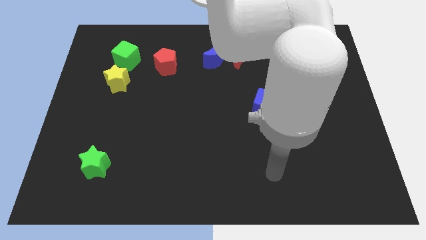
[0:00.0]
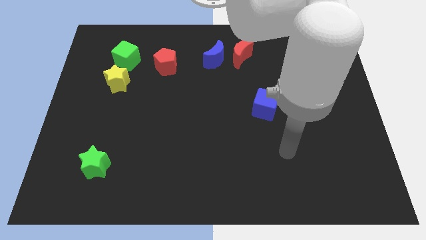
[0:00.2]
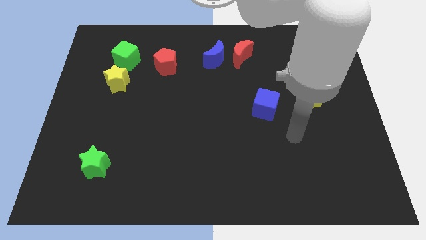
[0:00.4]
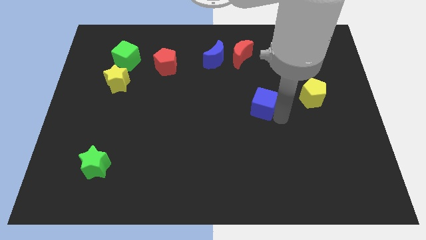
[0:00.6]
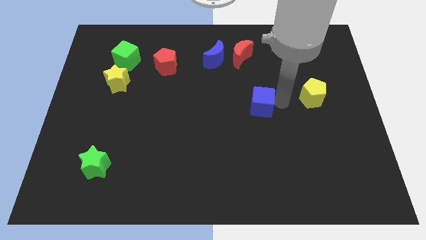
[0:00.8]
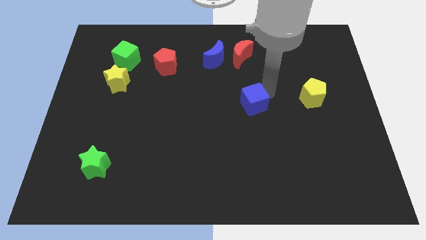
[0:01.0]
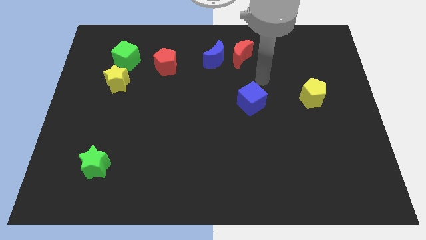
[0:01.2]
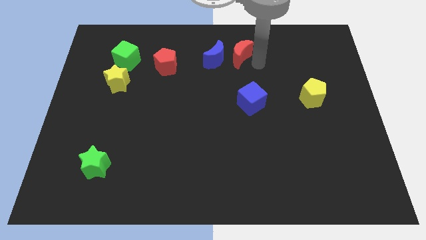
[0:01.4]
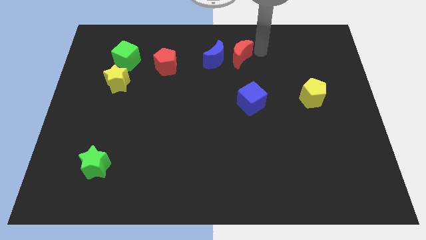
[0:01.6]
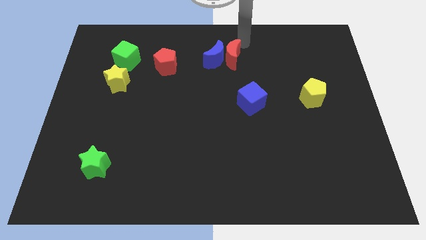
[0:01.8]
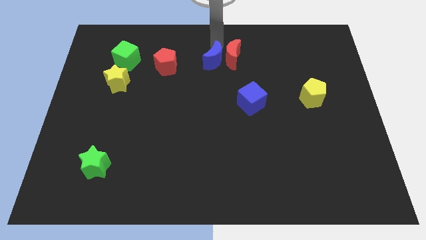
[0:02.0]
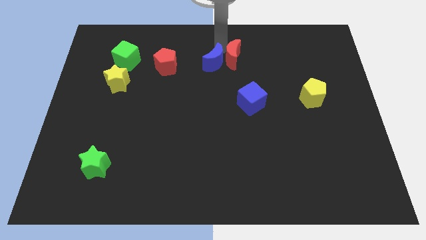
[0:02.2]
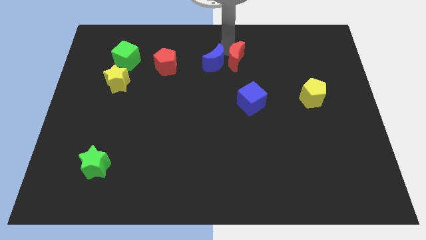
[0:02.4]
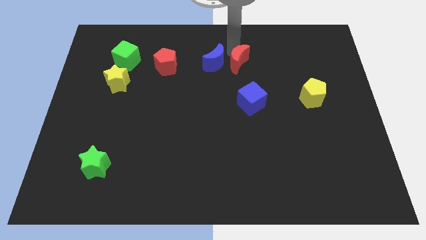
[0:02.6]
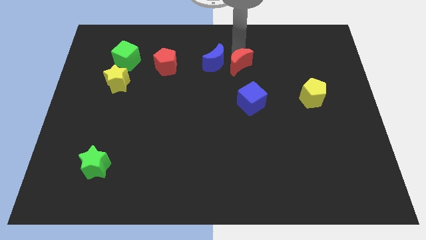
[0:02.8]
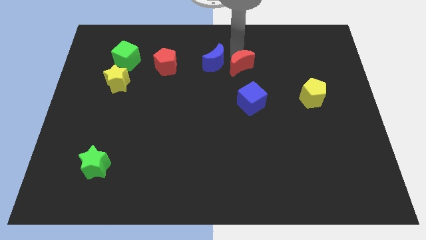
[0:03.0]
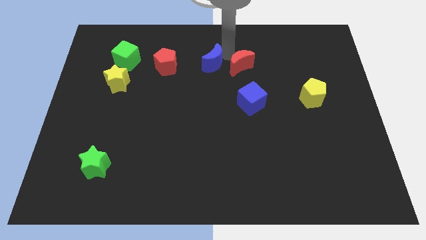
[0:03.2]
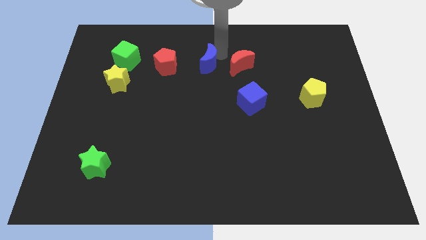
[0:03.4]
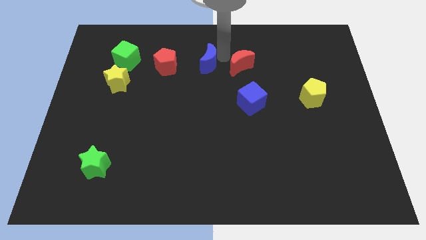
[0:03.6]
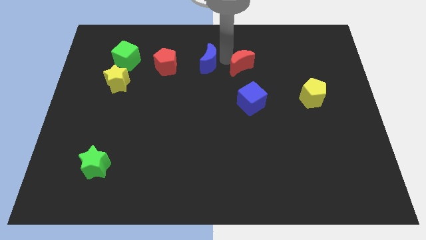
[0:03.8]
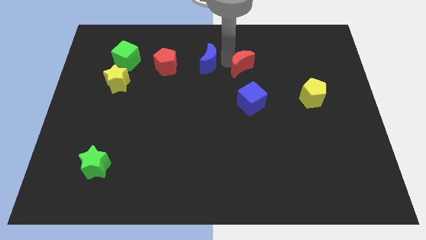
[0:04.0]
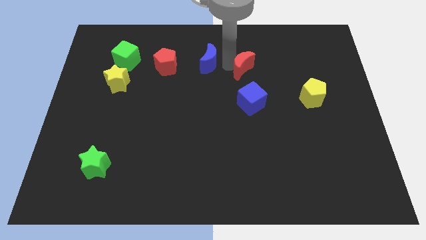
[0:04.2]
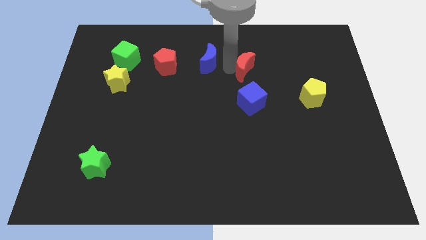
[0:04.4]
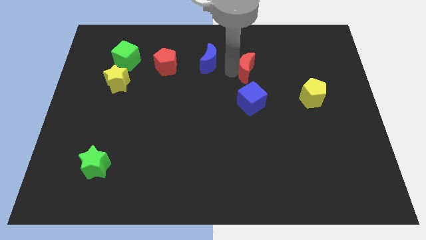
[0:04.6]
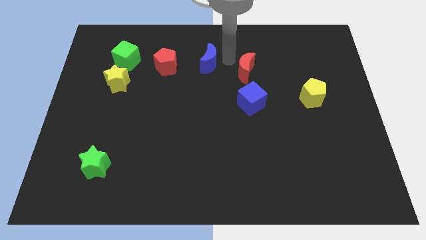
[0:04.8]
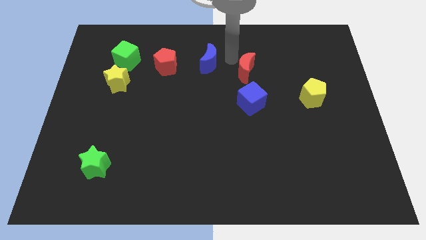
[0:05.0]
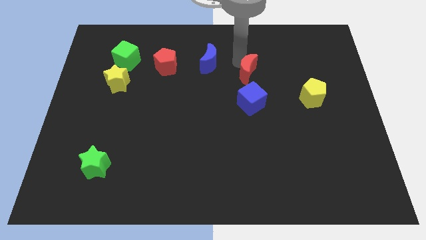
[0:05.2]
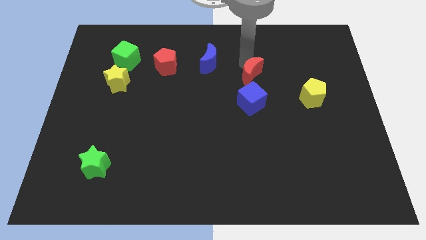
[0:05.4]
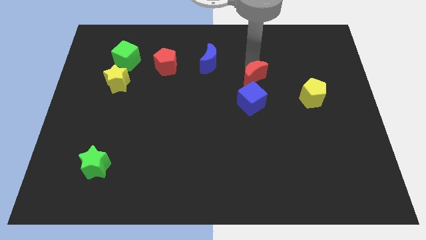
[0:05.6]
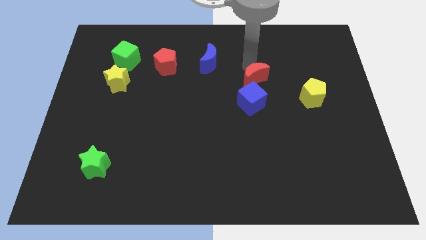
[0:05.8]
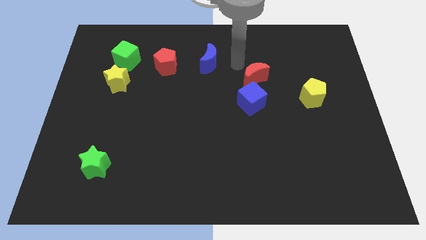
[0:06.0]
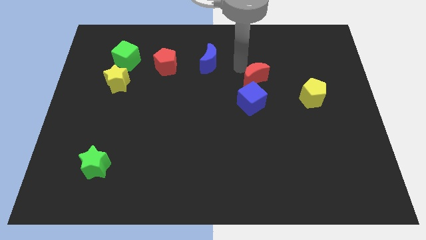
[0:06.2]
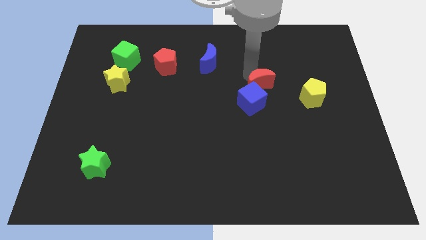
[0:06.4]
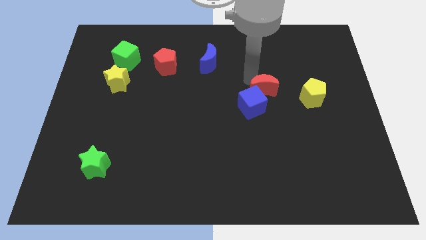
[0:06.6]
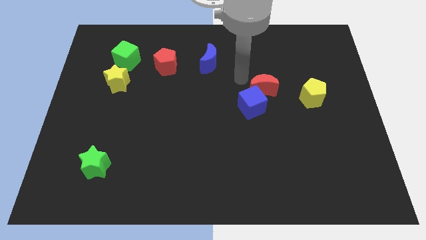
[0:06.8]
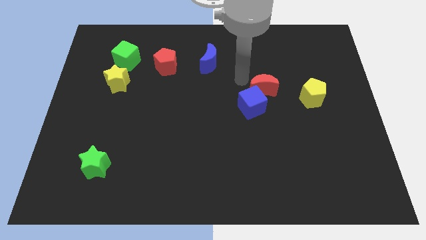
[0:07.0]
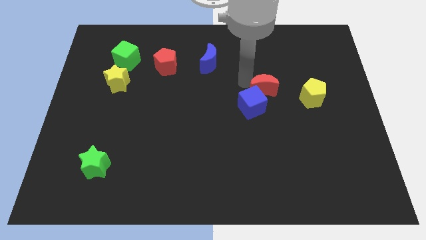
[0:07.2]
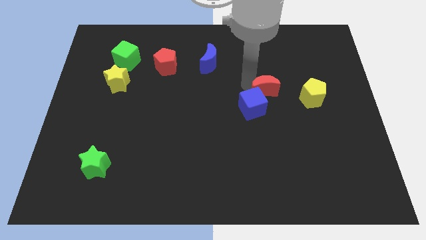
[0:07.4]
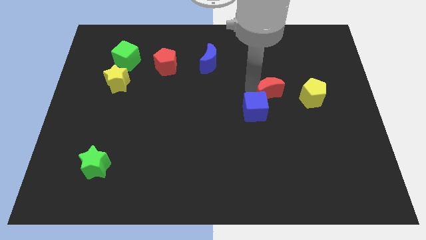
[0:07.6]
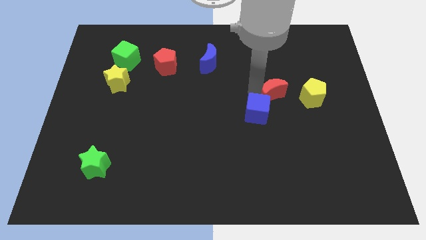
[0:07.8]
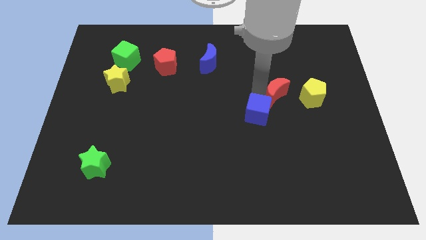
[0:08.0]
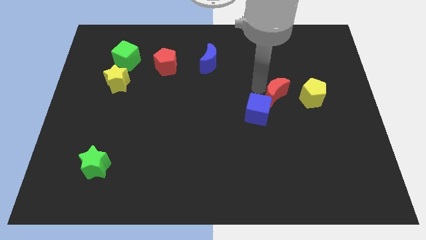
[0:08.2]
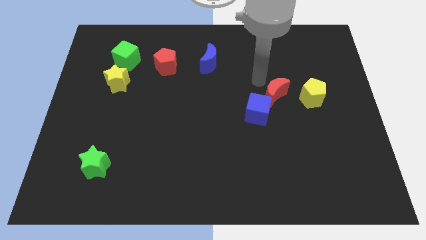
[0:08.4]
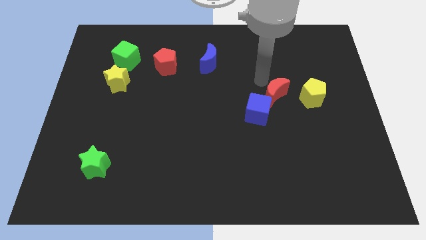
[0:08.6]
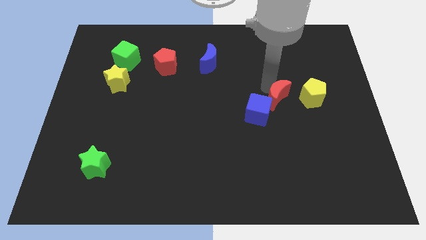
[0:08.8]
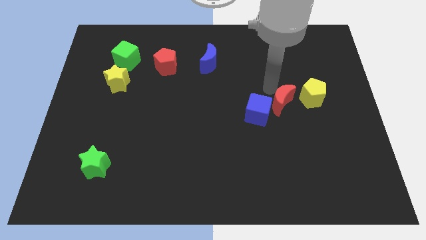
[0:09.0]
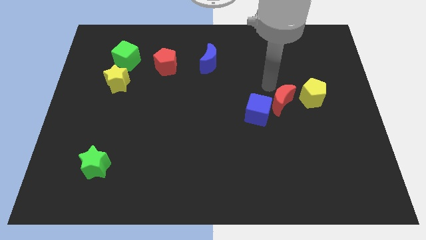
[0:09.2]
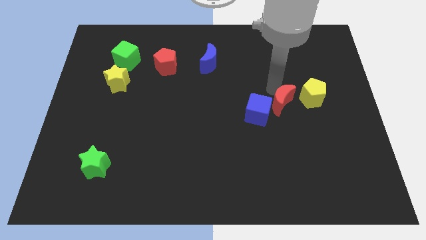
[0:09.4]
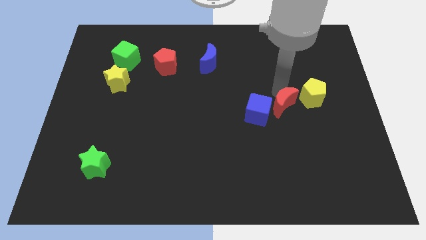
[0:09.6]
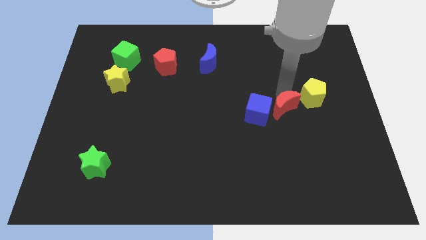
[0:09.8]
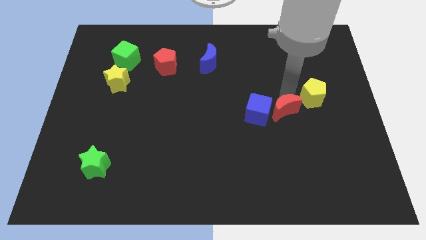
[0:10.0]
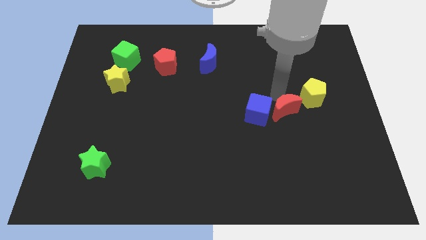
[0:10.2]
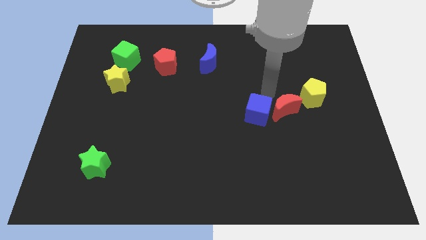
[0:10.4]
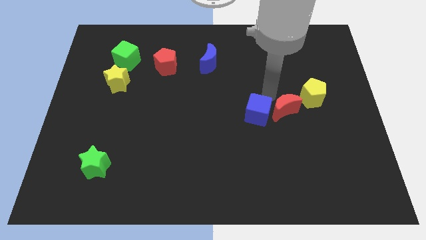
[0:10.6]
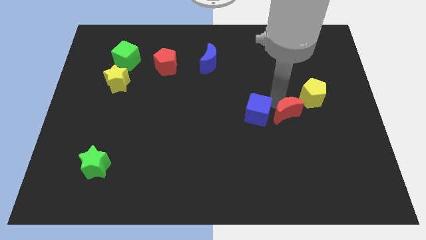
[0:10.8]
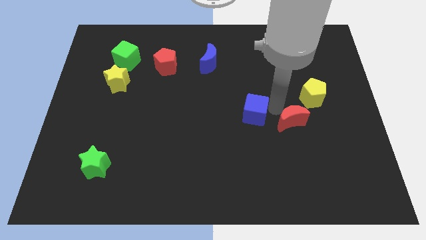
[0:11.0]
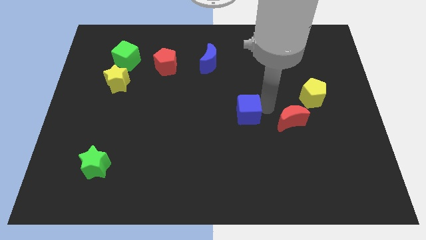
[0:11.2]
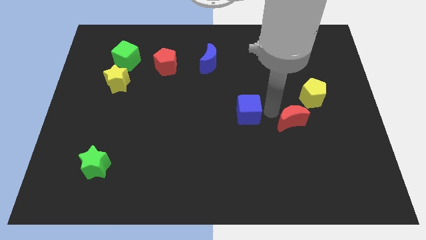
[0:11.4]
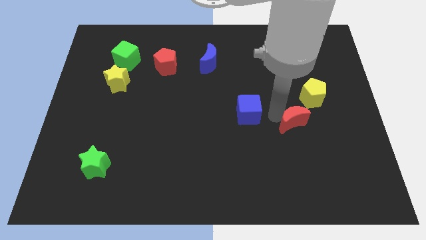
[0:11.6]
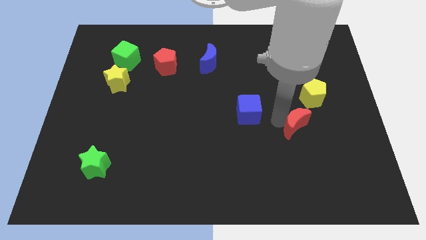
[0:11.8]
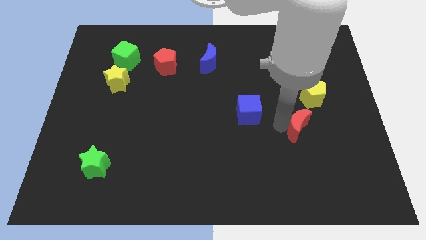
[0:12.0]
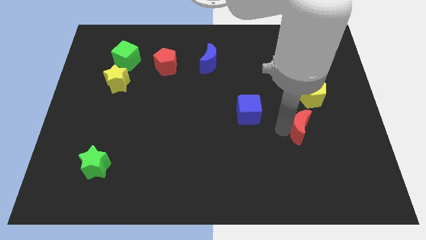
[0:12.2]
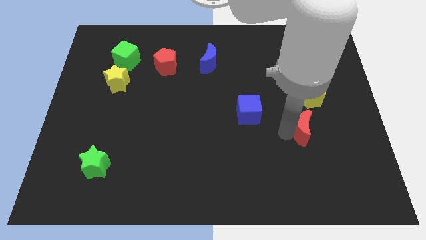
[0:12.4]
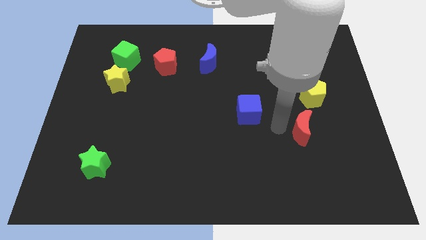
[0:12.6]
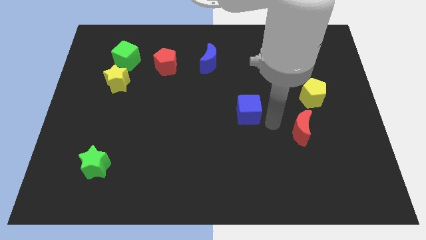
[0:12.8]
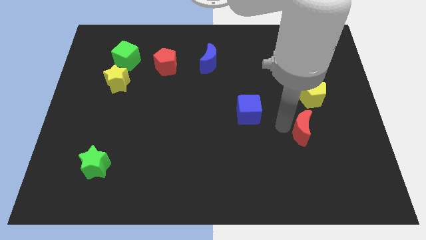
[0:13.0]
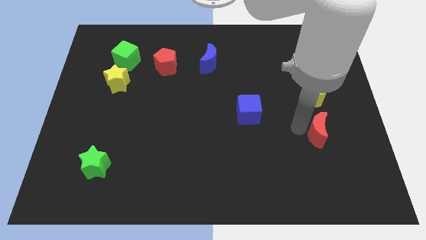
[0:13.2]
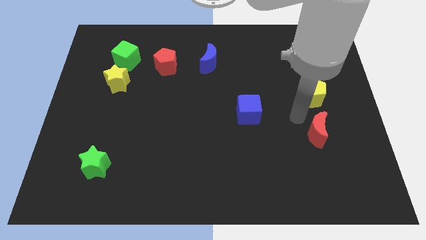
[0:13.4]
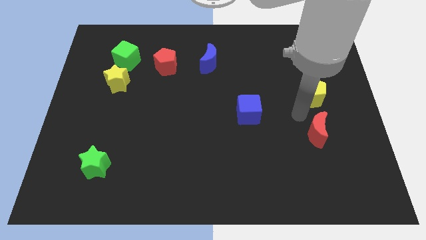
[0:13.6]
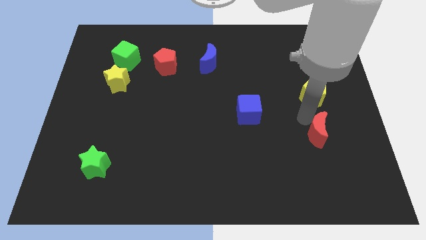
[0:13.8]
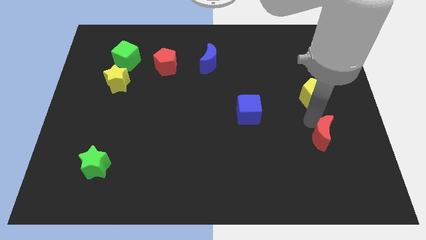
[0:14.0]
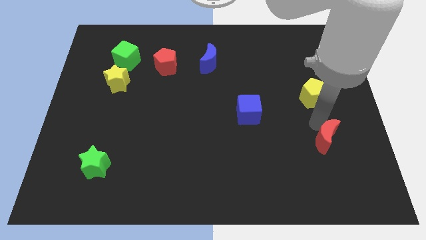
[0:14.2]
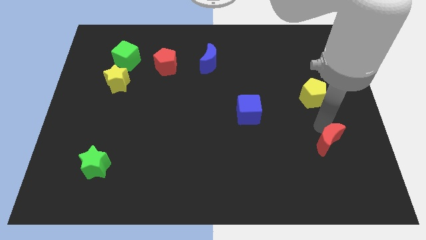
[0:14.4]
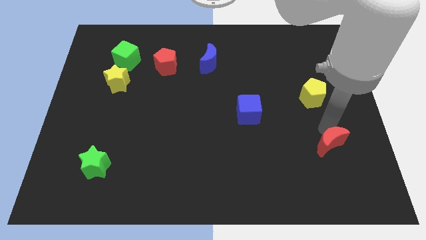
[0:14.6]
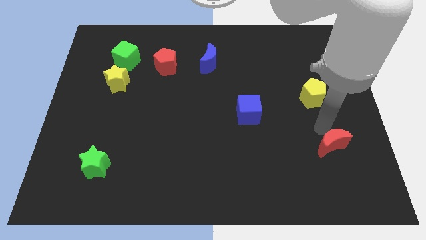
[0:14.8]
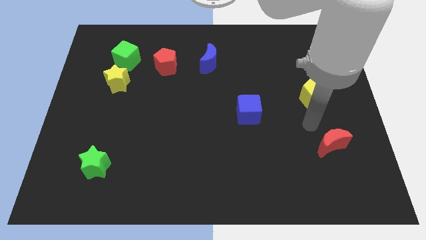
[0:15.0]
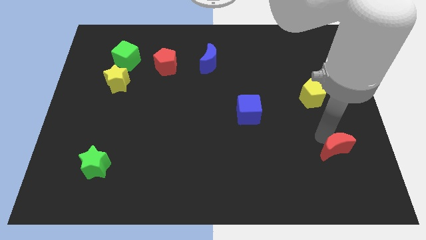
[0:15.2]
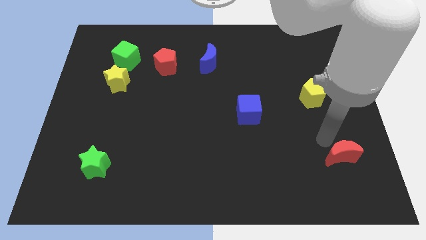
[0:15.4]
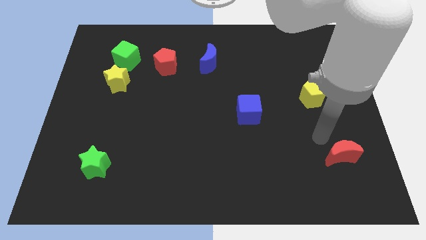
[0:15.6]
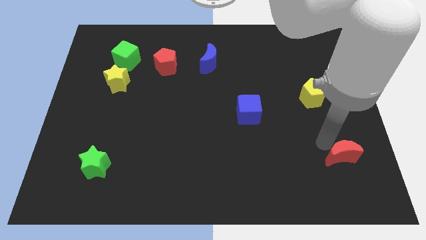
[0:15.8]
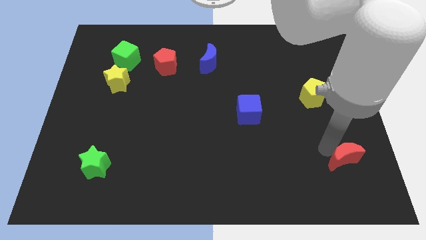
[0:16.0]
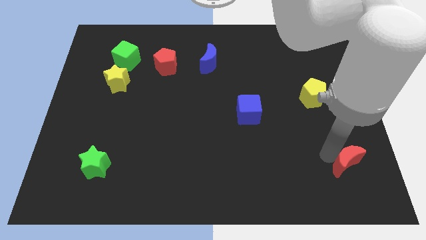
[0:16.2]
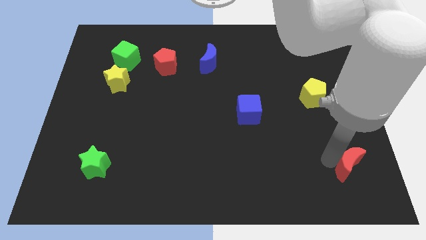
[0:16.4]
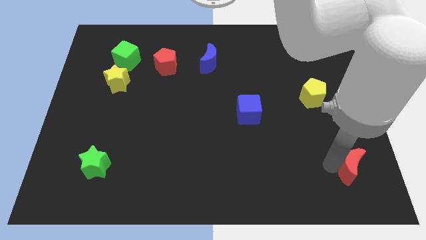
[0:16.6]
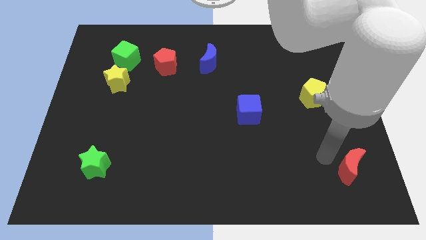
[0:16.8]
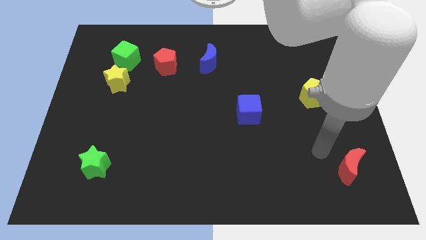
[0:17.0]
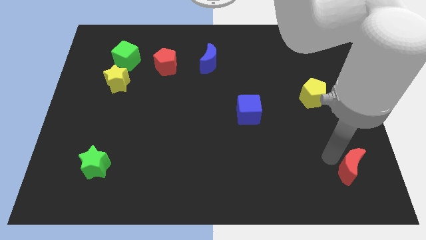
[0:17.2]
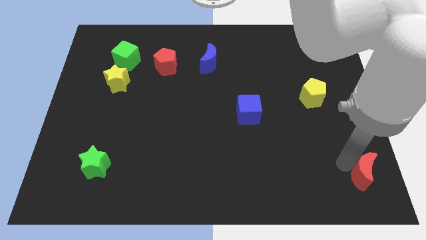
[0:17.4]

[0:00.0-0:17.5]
slide the red moon to the bottom right
